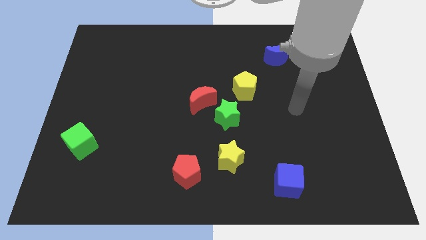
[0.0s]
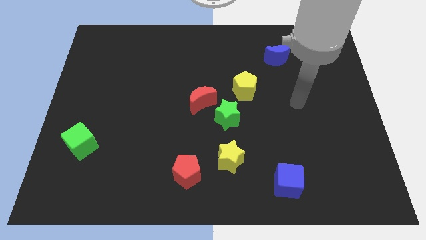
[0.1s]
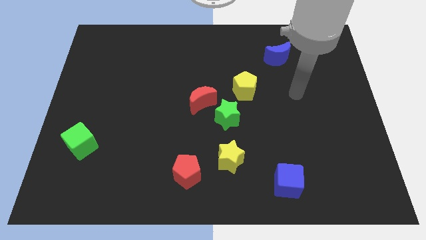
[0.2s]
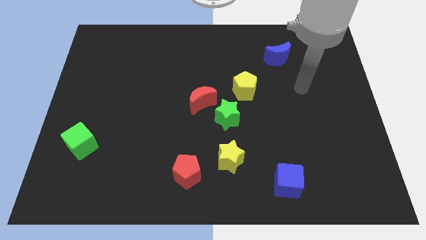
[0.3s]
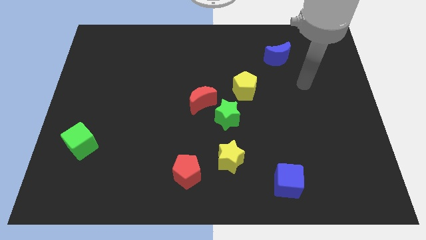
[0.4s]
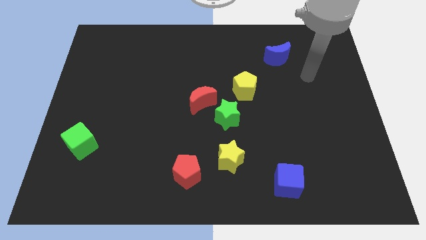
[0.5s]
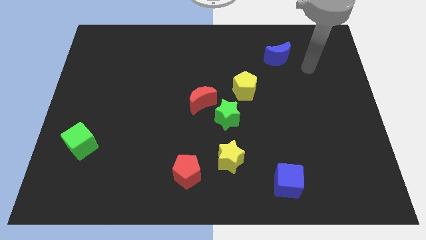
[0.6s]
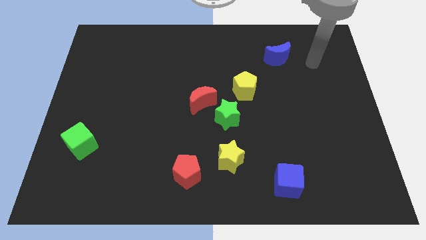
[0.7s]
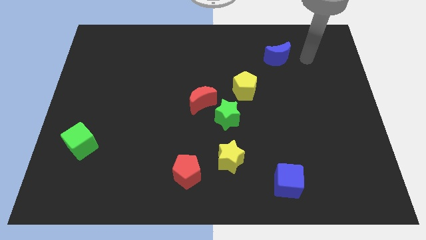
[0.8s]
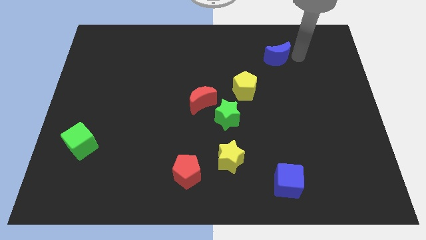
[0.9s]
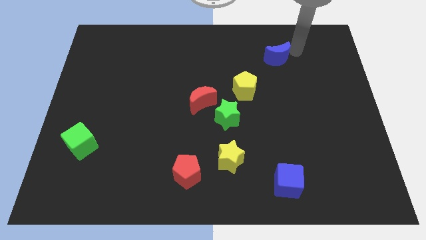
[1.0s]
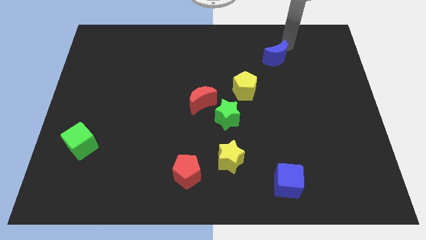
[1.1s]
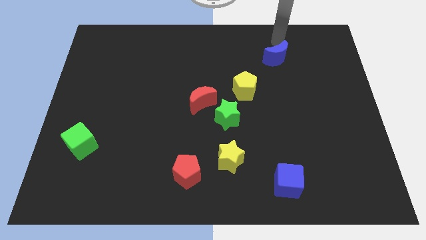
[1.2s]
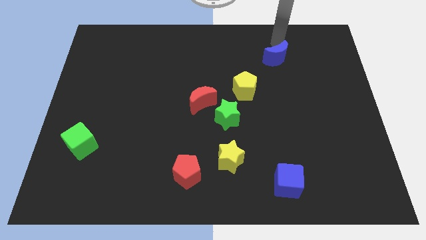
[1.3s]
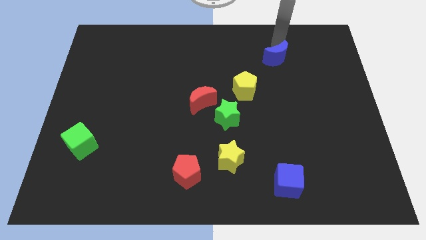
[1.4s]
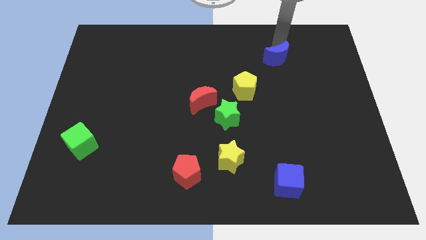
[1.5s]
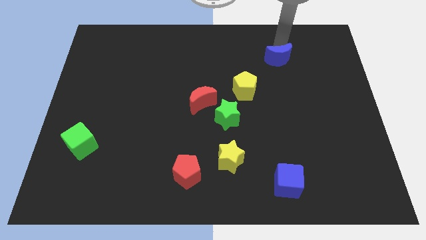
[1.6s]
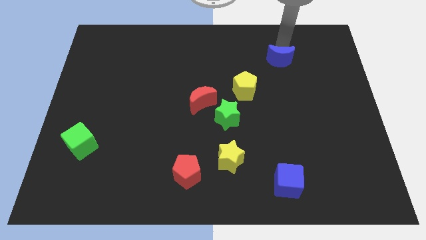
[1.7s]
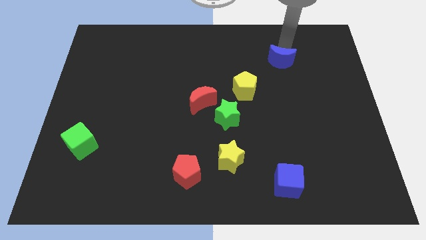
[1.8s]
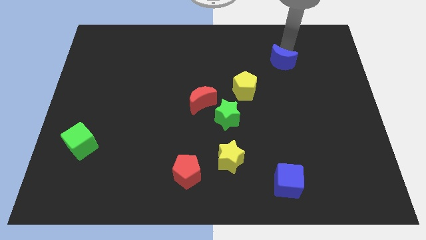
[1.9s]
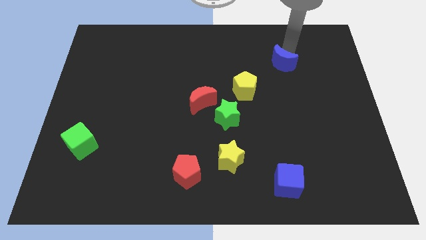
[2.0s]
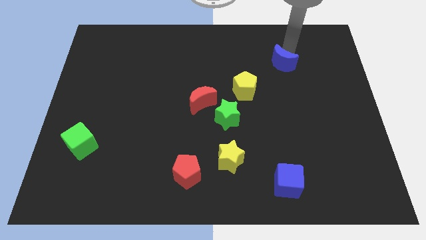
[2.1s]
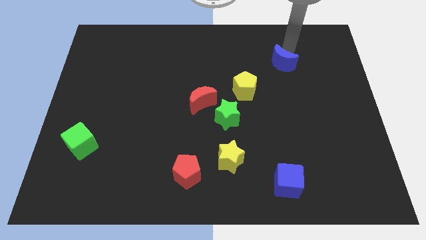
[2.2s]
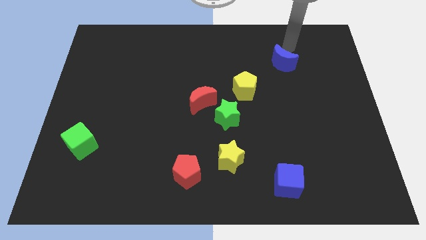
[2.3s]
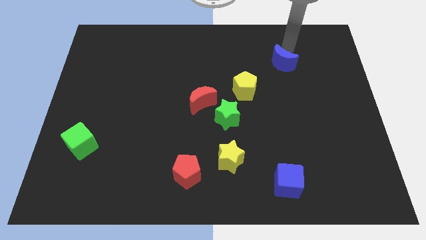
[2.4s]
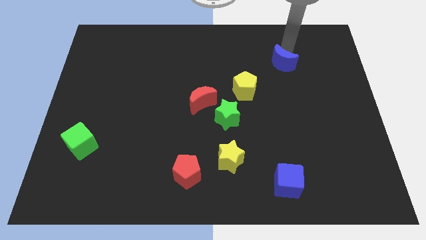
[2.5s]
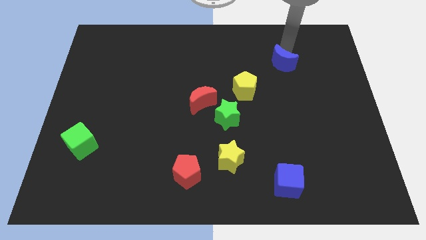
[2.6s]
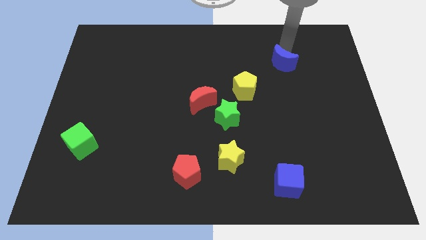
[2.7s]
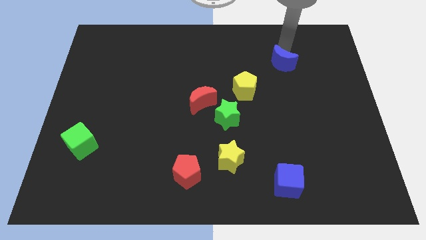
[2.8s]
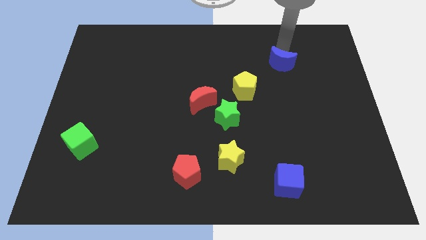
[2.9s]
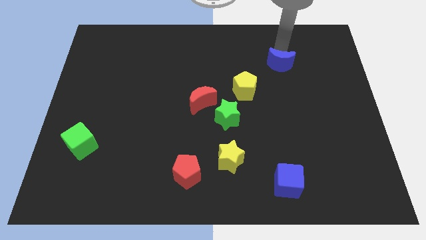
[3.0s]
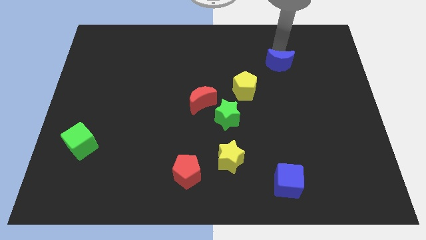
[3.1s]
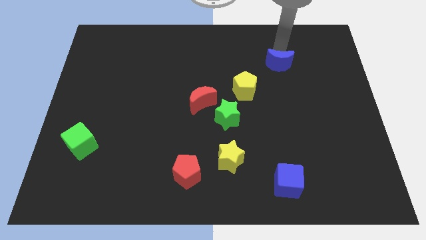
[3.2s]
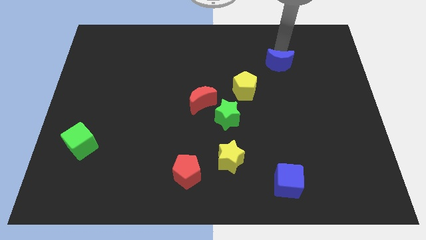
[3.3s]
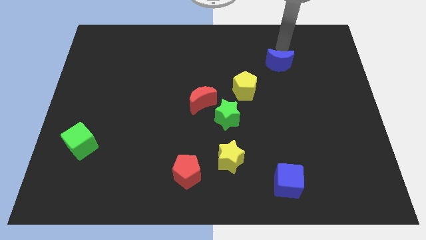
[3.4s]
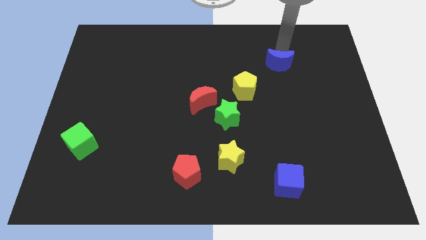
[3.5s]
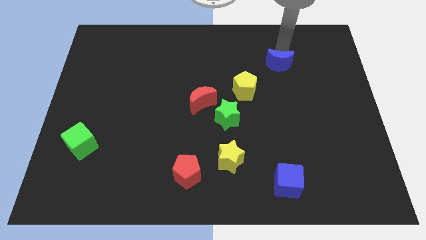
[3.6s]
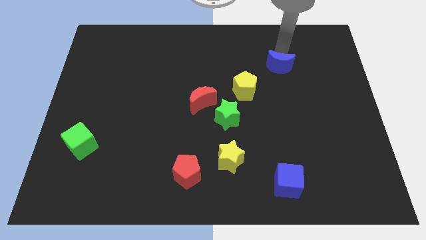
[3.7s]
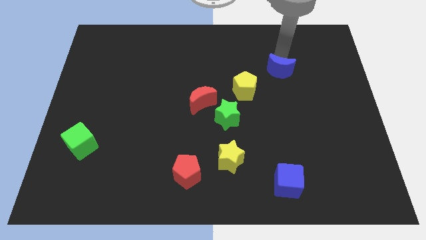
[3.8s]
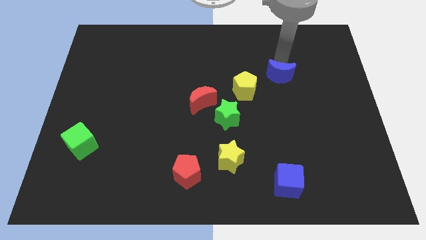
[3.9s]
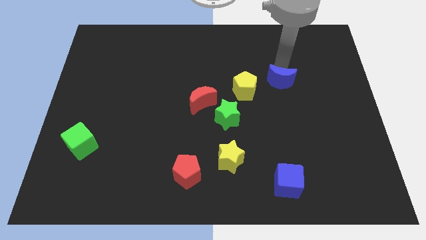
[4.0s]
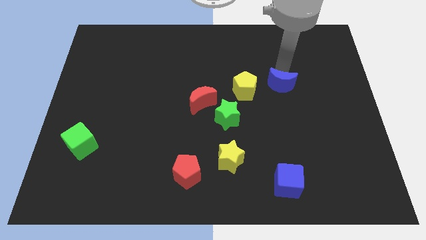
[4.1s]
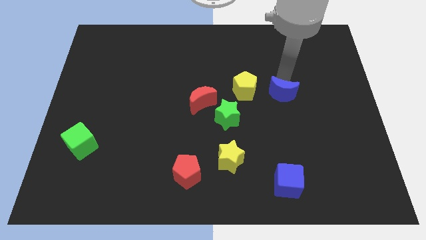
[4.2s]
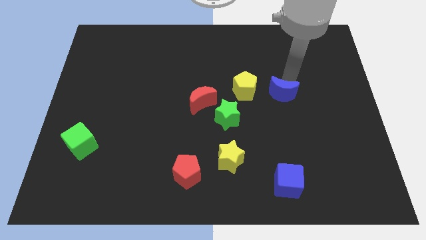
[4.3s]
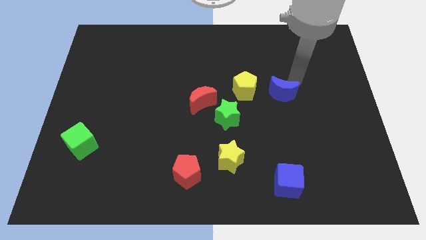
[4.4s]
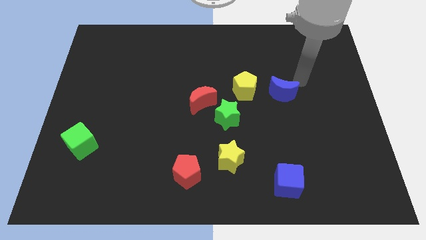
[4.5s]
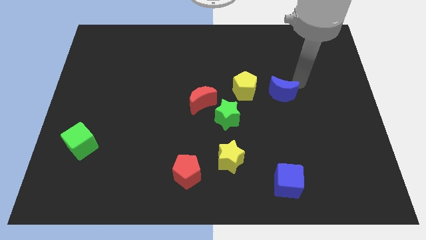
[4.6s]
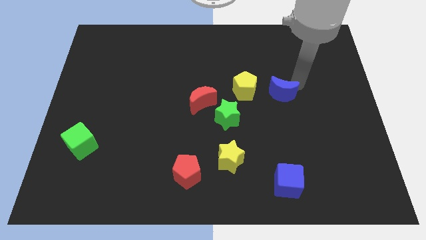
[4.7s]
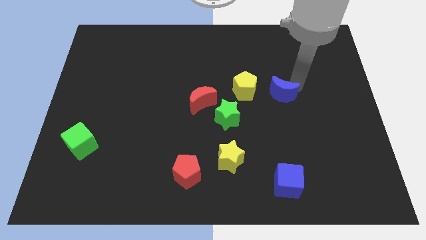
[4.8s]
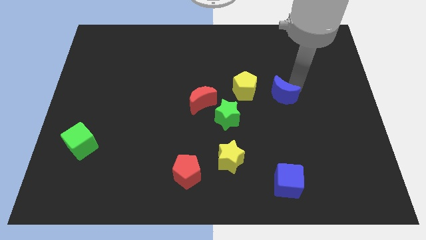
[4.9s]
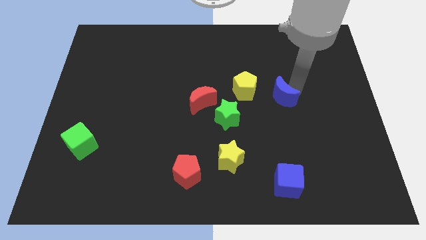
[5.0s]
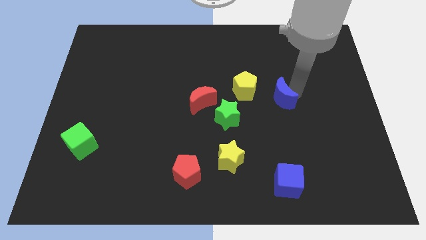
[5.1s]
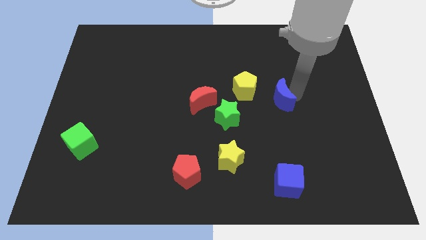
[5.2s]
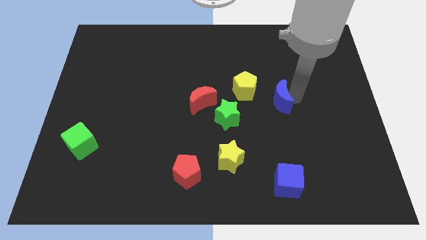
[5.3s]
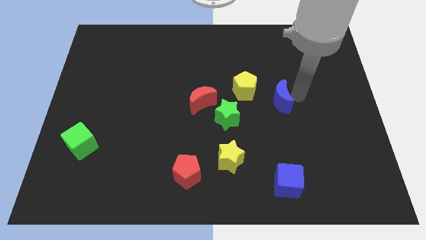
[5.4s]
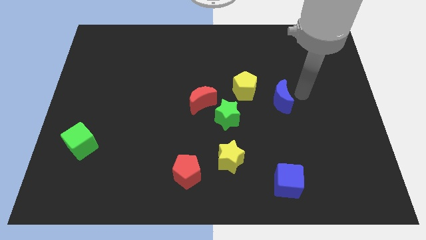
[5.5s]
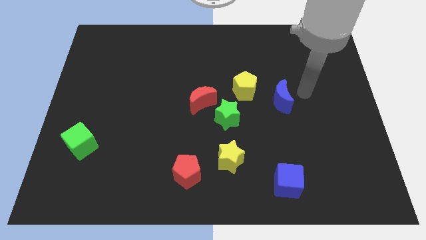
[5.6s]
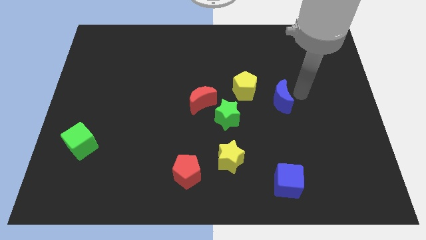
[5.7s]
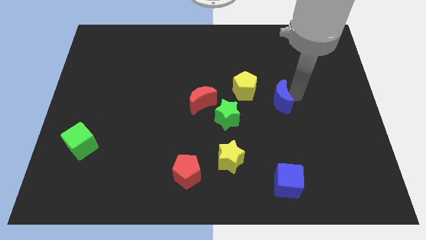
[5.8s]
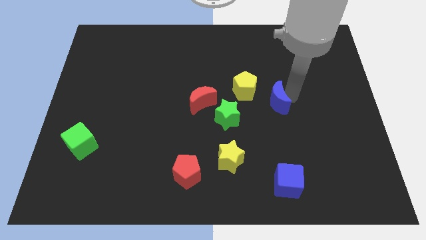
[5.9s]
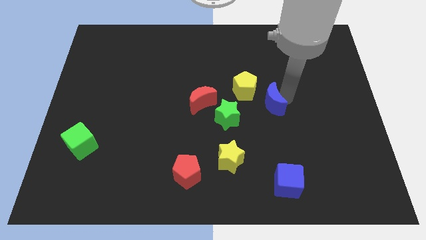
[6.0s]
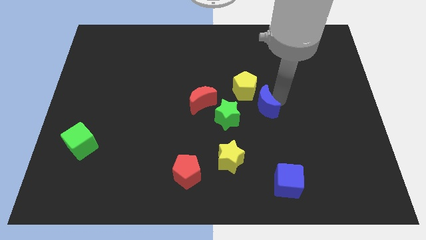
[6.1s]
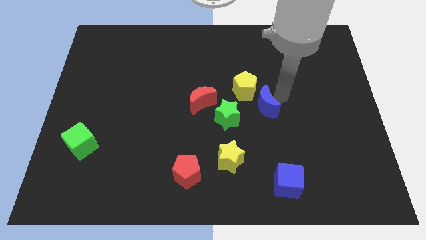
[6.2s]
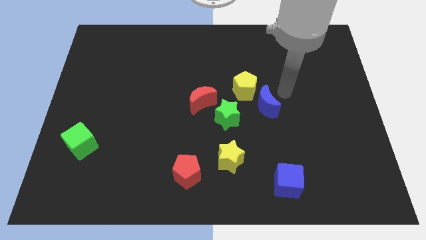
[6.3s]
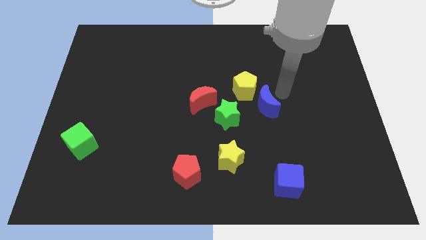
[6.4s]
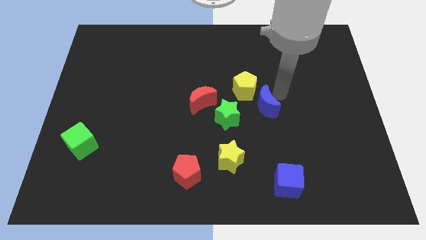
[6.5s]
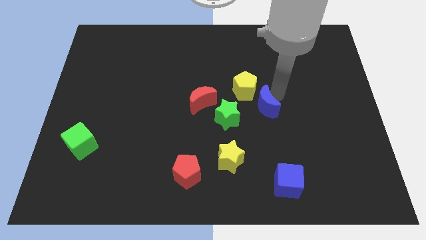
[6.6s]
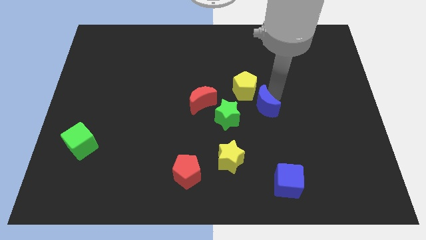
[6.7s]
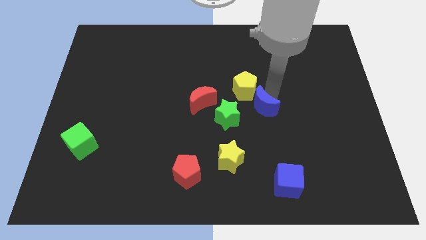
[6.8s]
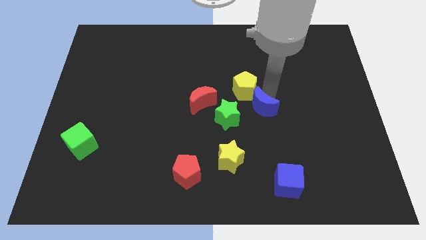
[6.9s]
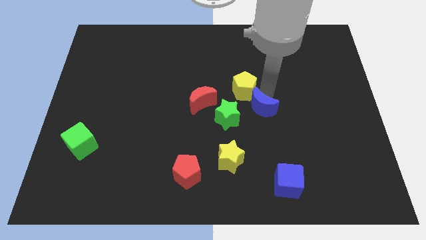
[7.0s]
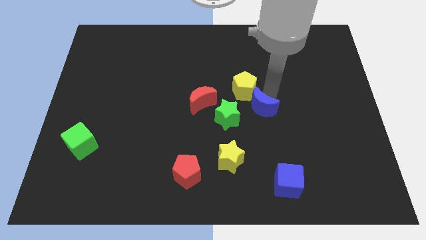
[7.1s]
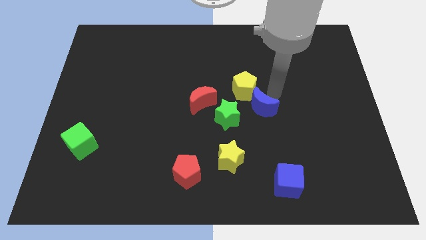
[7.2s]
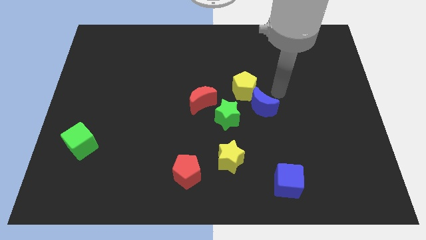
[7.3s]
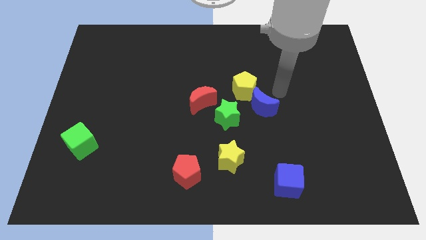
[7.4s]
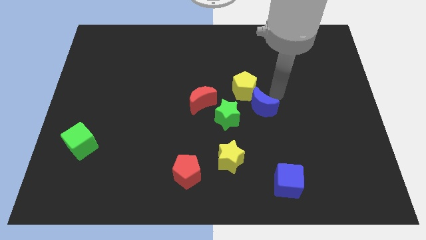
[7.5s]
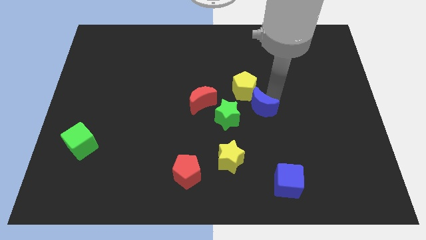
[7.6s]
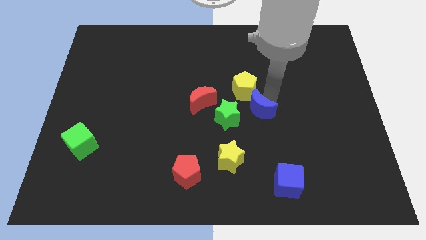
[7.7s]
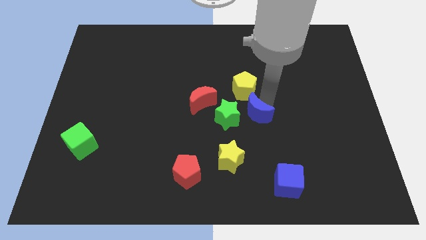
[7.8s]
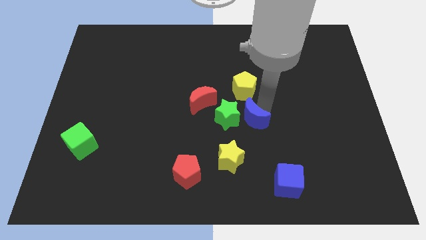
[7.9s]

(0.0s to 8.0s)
push the blue moon towards the green star
